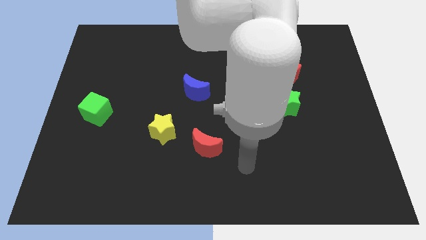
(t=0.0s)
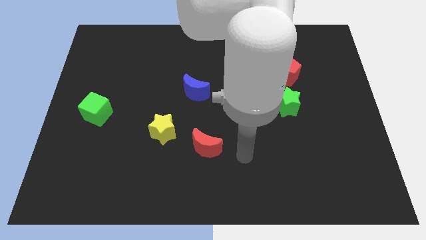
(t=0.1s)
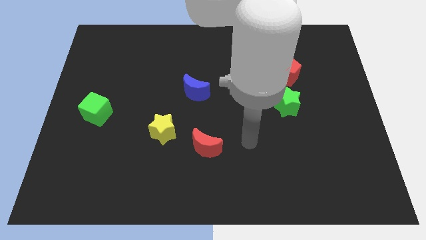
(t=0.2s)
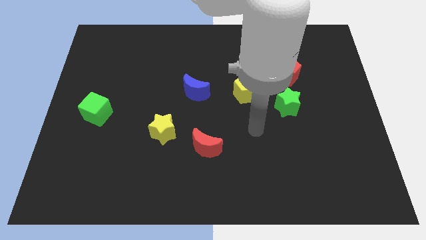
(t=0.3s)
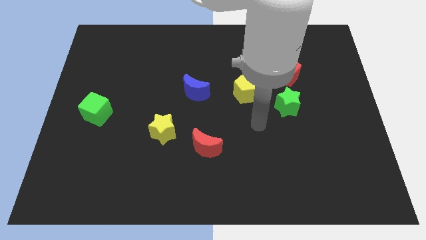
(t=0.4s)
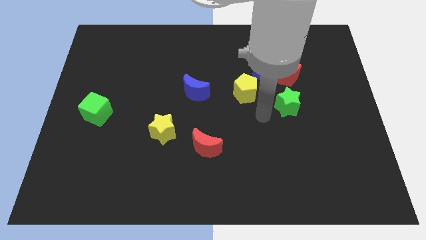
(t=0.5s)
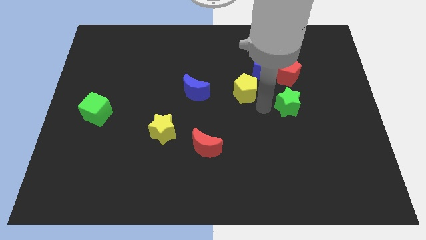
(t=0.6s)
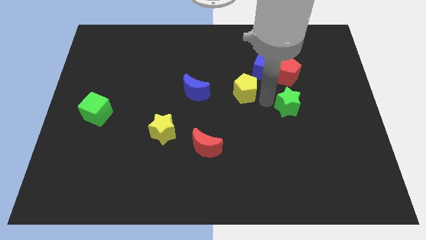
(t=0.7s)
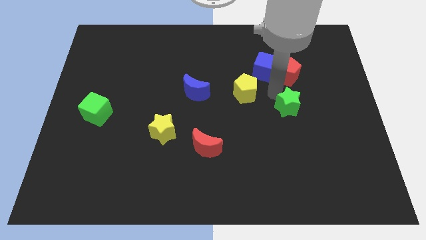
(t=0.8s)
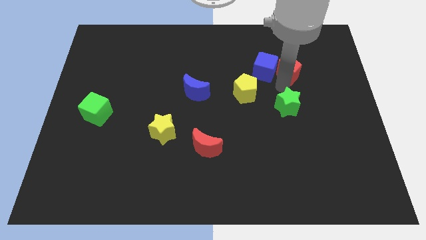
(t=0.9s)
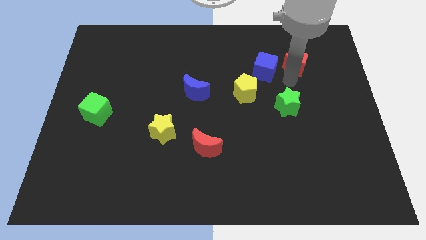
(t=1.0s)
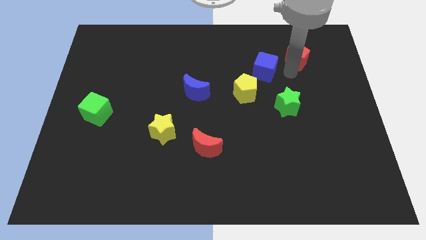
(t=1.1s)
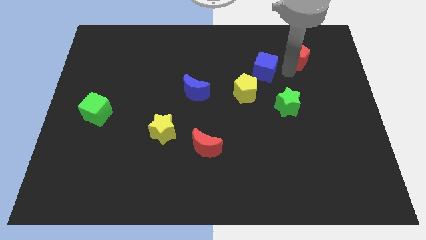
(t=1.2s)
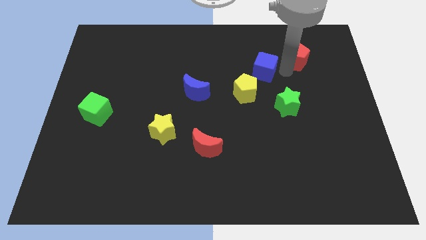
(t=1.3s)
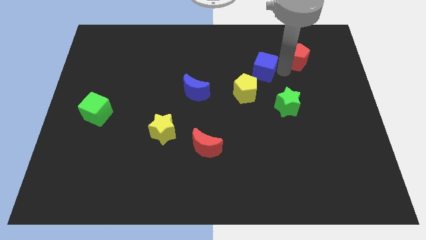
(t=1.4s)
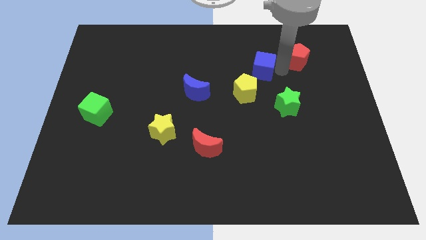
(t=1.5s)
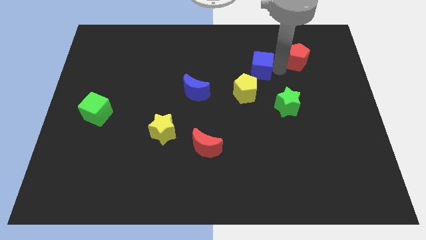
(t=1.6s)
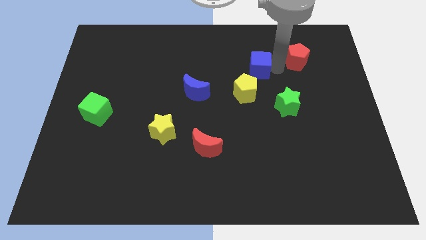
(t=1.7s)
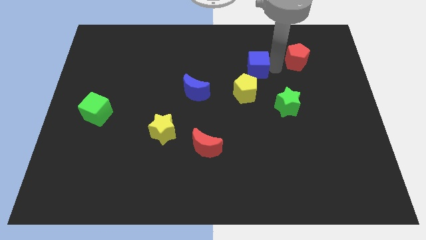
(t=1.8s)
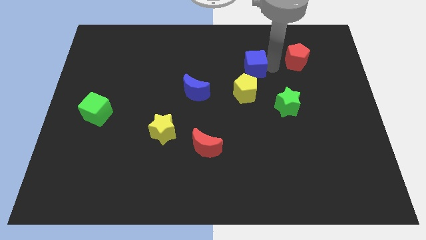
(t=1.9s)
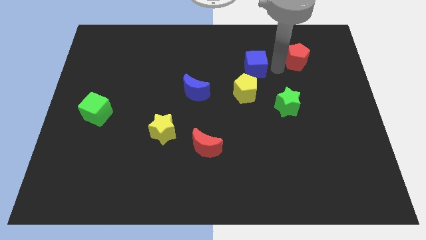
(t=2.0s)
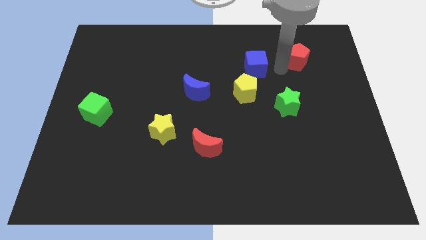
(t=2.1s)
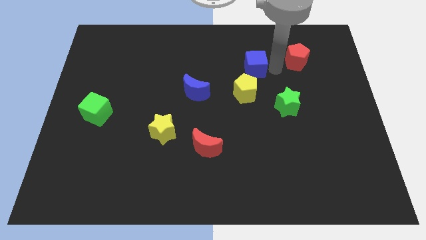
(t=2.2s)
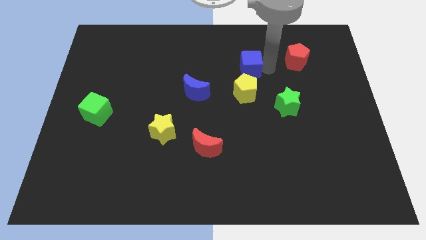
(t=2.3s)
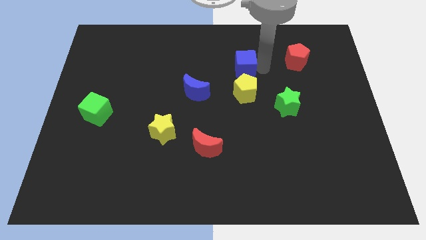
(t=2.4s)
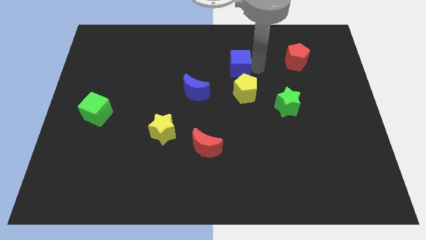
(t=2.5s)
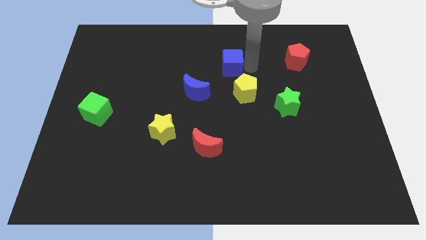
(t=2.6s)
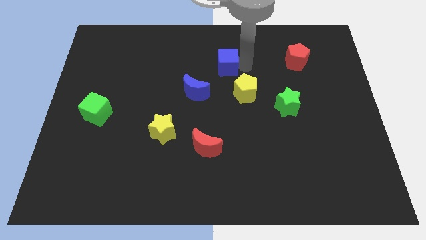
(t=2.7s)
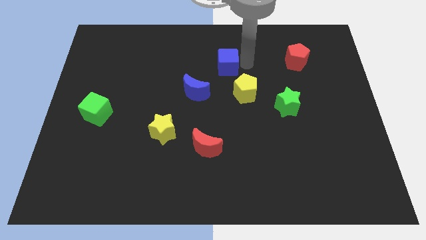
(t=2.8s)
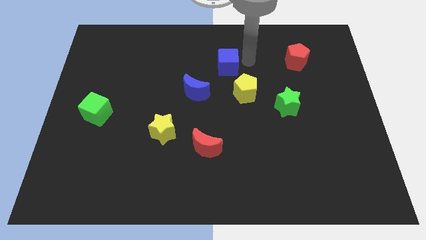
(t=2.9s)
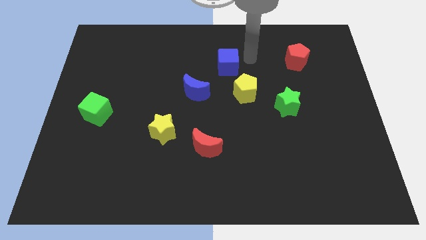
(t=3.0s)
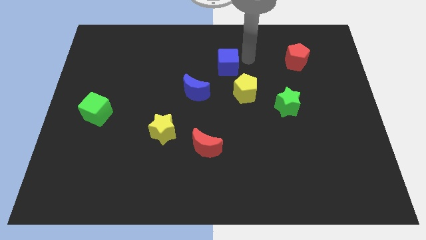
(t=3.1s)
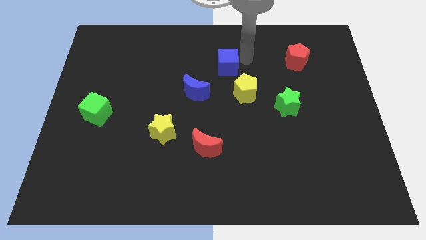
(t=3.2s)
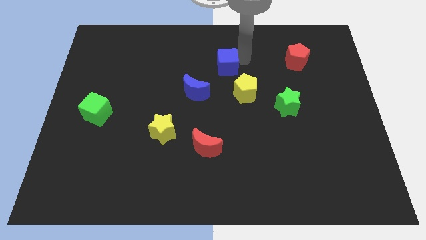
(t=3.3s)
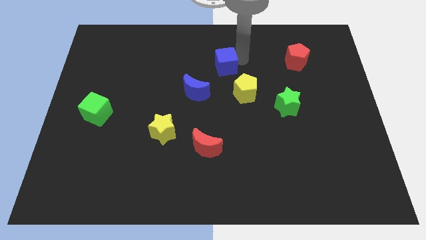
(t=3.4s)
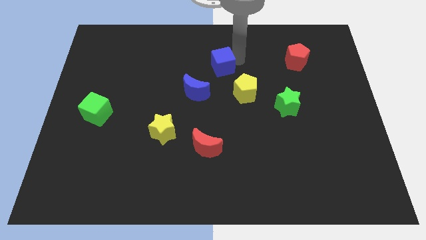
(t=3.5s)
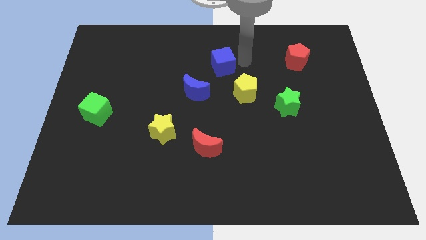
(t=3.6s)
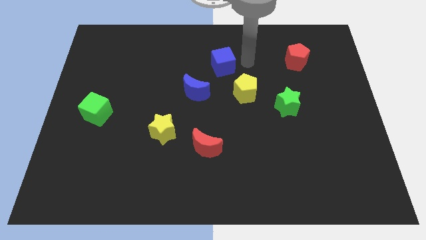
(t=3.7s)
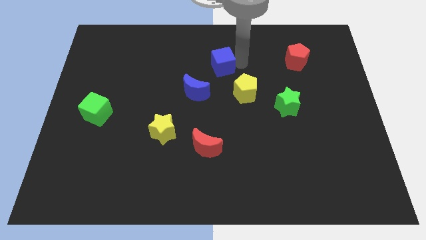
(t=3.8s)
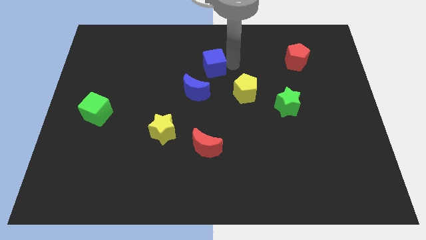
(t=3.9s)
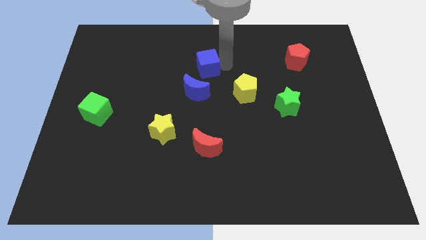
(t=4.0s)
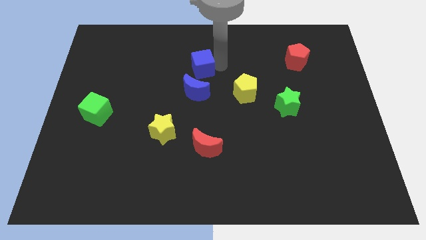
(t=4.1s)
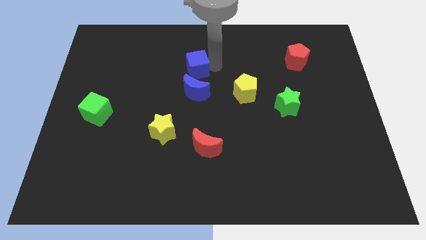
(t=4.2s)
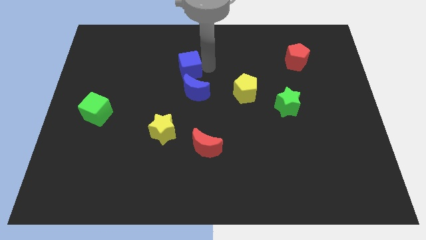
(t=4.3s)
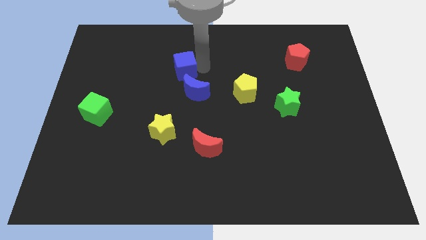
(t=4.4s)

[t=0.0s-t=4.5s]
move the blue cube to the left

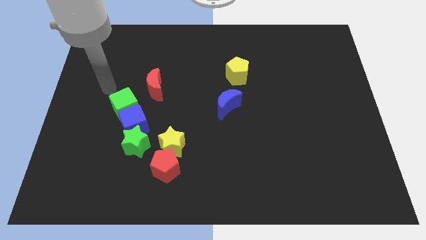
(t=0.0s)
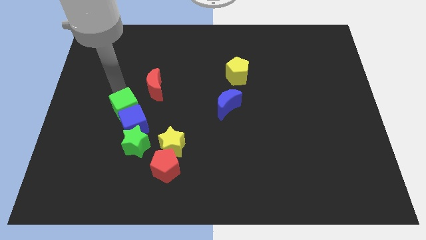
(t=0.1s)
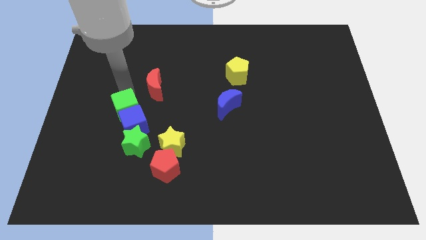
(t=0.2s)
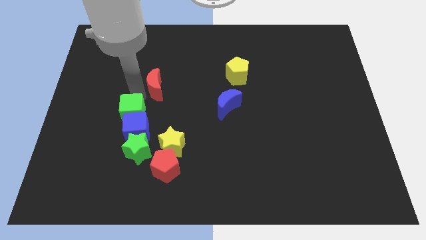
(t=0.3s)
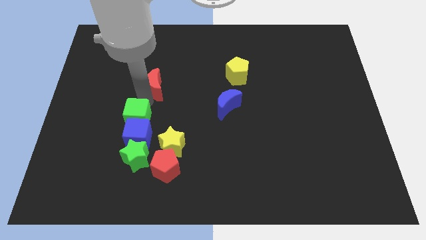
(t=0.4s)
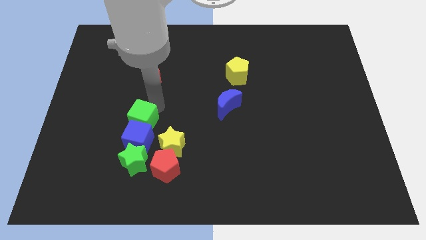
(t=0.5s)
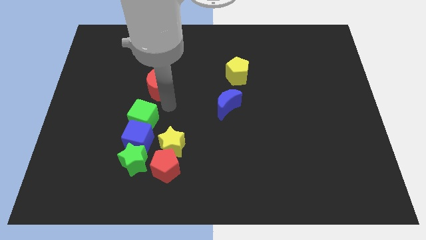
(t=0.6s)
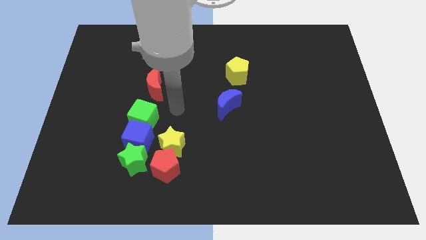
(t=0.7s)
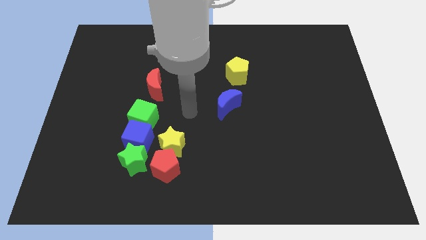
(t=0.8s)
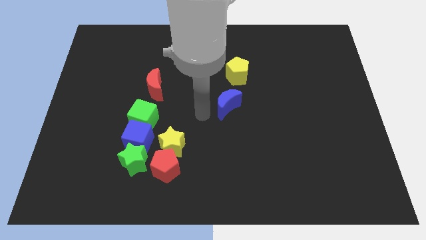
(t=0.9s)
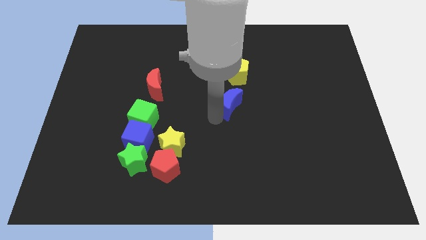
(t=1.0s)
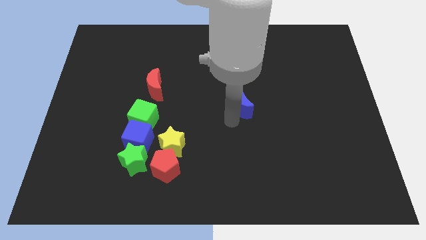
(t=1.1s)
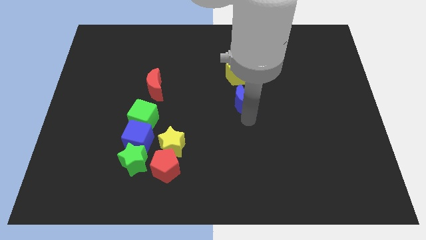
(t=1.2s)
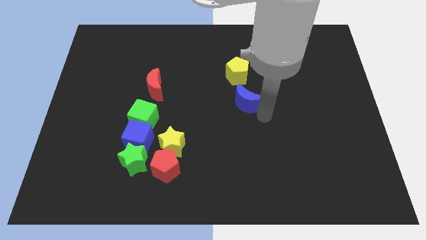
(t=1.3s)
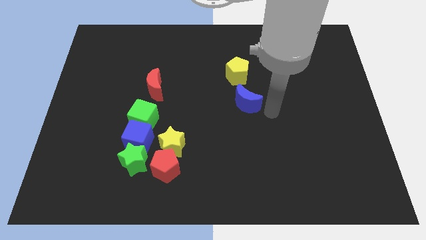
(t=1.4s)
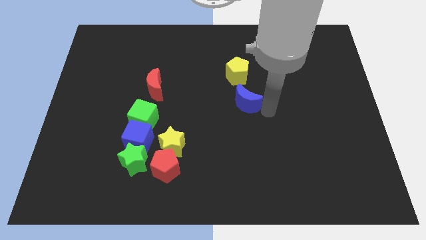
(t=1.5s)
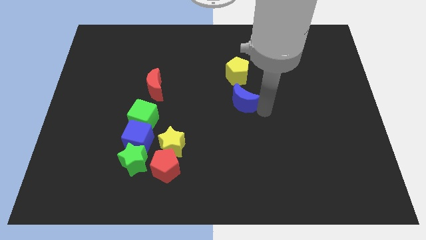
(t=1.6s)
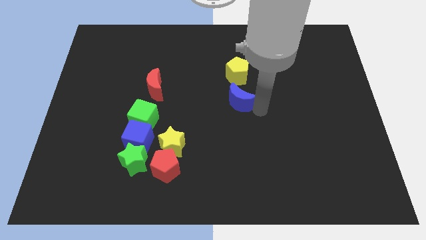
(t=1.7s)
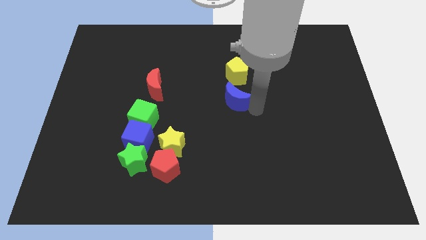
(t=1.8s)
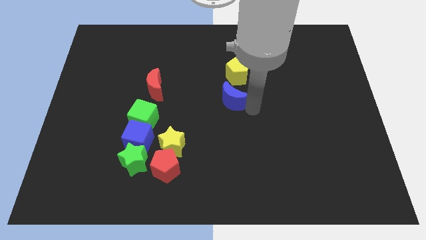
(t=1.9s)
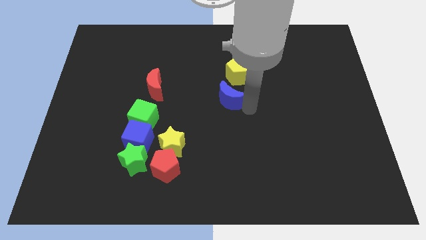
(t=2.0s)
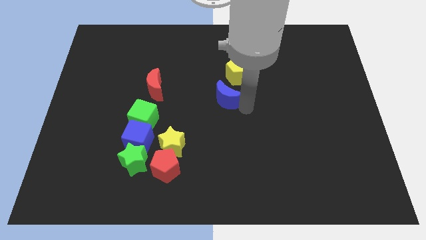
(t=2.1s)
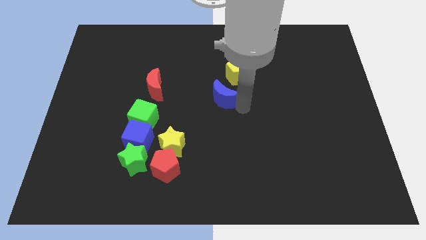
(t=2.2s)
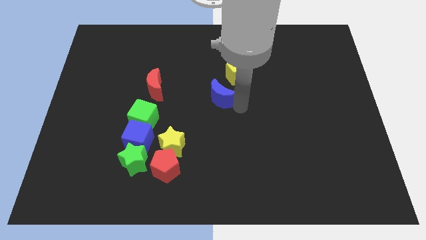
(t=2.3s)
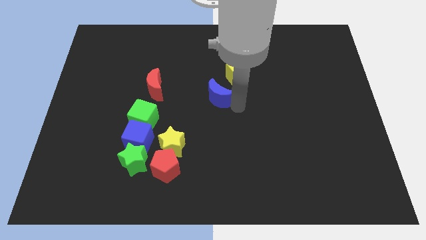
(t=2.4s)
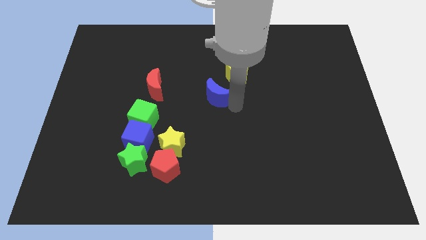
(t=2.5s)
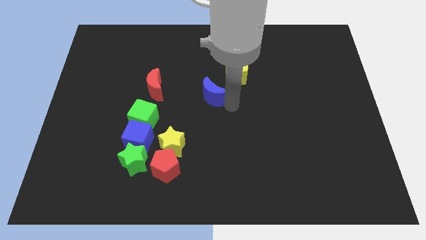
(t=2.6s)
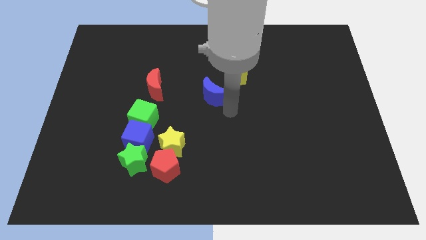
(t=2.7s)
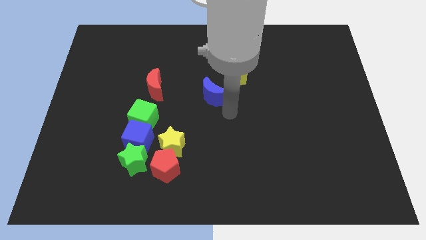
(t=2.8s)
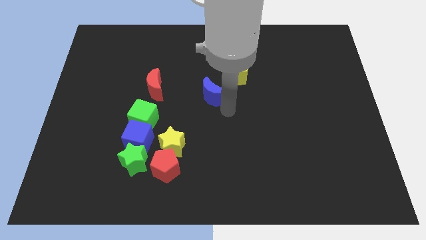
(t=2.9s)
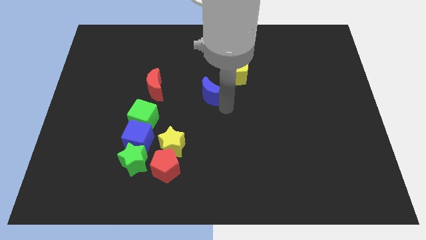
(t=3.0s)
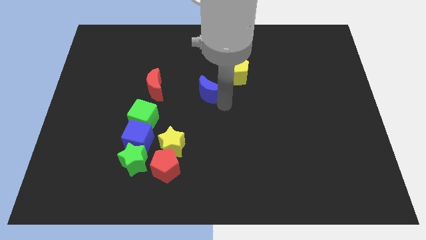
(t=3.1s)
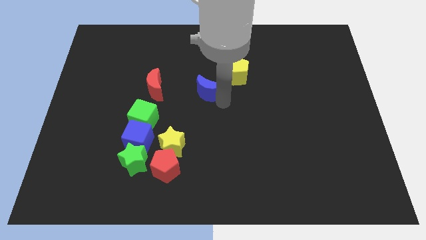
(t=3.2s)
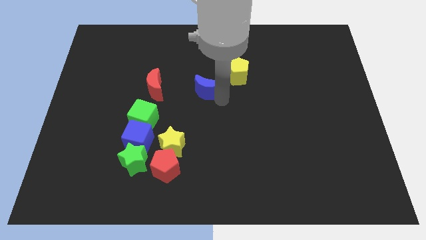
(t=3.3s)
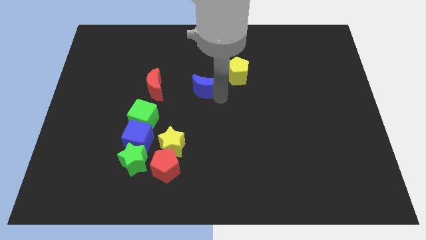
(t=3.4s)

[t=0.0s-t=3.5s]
push the blue moon diagonally up and to the left a bit
